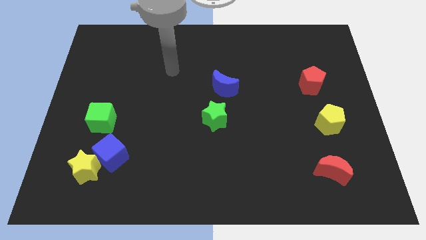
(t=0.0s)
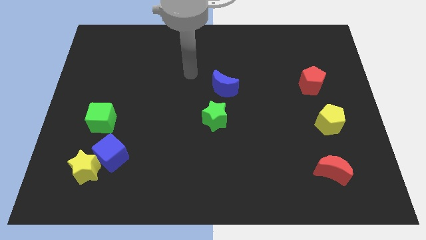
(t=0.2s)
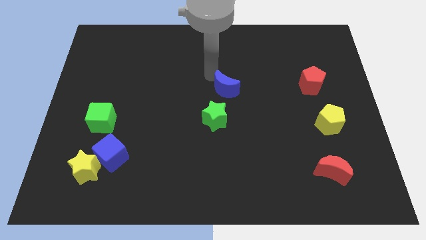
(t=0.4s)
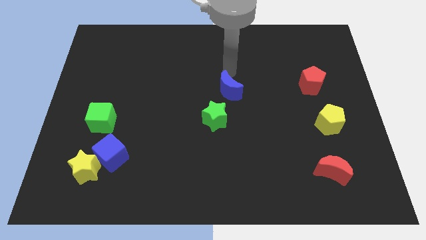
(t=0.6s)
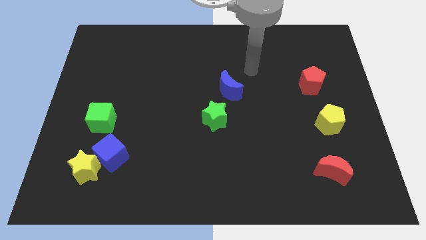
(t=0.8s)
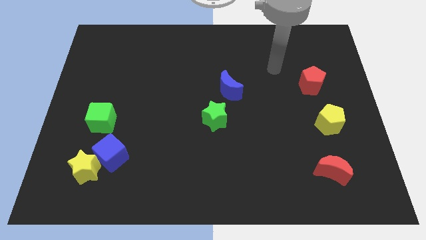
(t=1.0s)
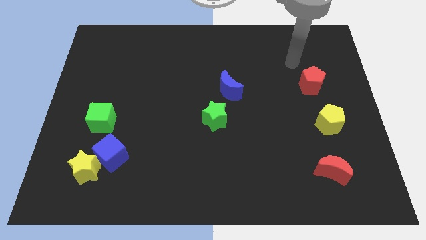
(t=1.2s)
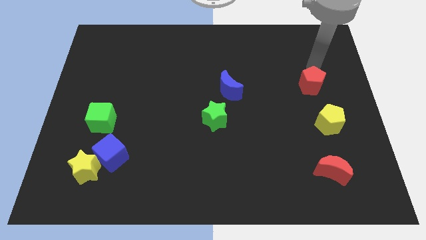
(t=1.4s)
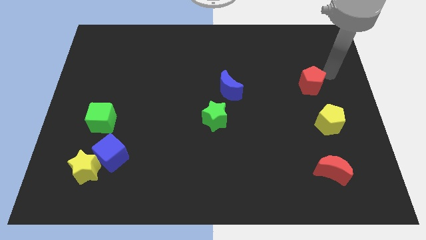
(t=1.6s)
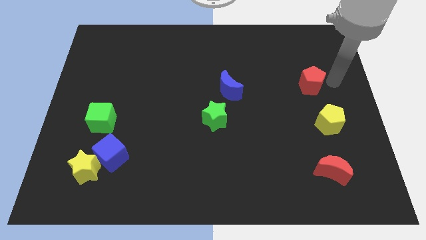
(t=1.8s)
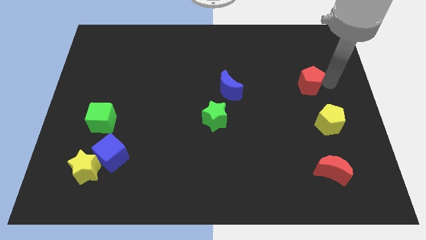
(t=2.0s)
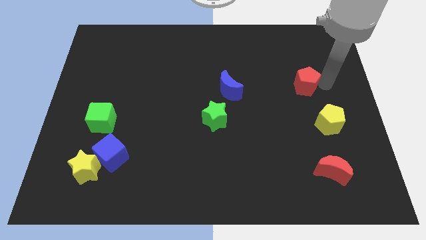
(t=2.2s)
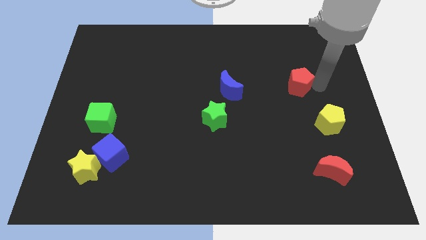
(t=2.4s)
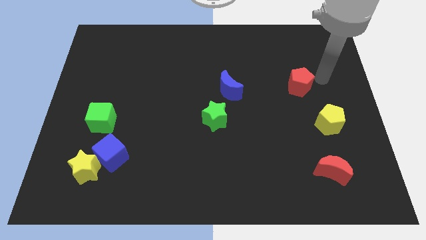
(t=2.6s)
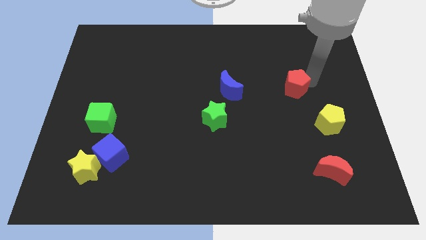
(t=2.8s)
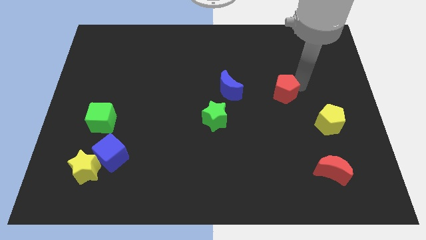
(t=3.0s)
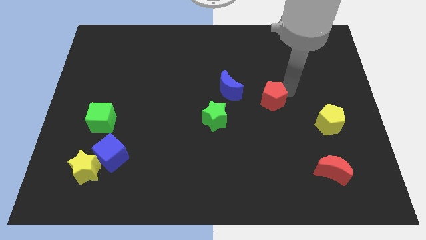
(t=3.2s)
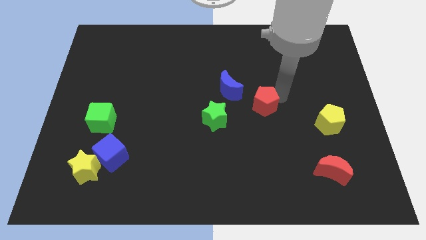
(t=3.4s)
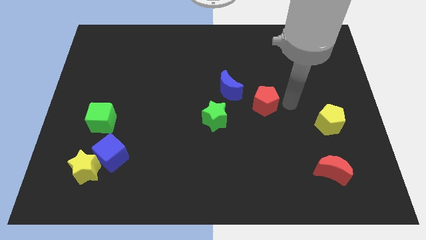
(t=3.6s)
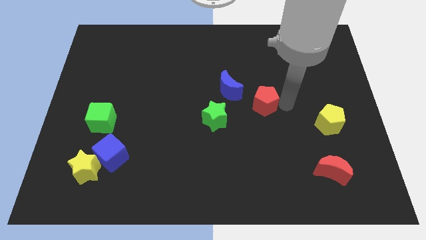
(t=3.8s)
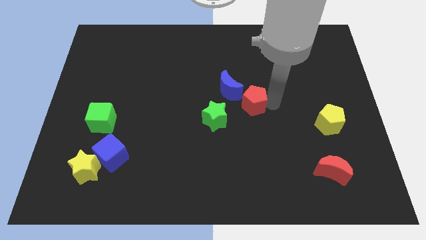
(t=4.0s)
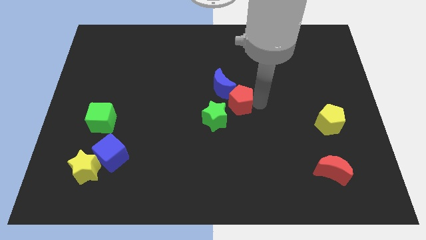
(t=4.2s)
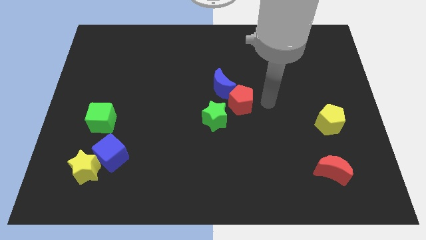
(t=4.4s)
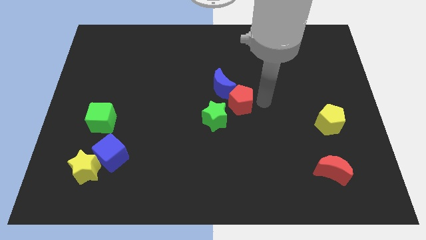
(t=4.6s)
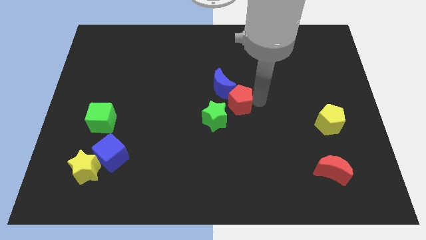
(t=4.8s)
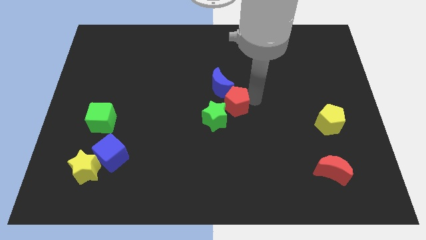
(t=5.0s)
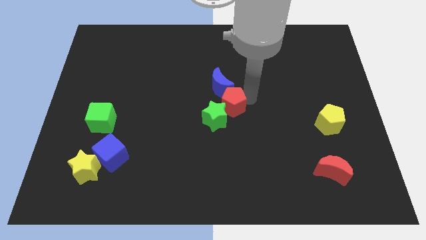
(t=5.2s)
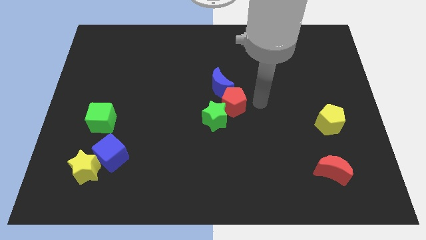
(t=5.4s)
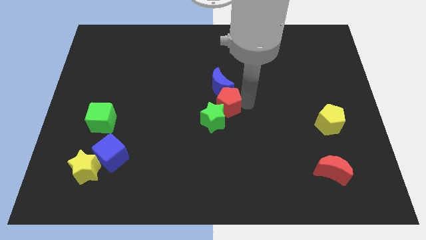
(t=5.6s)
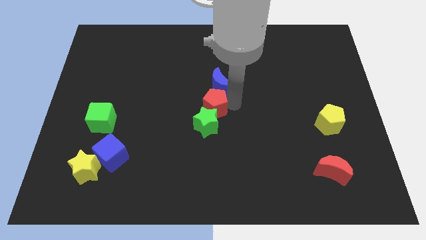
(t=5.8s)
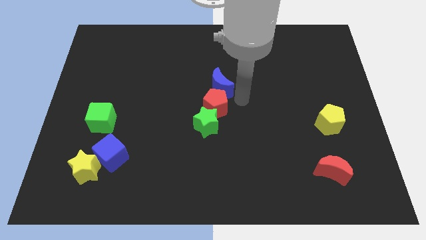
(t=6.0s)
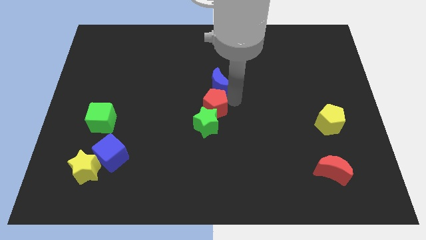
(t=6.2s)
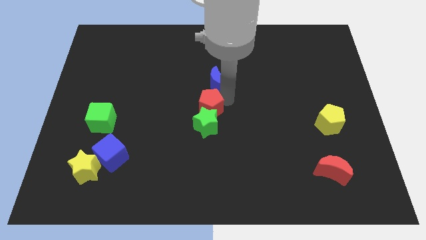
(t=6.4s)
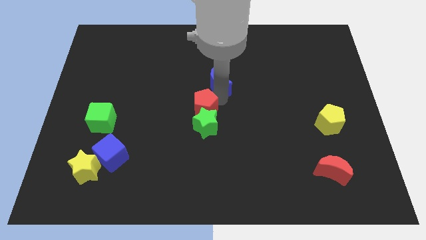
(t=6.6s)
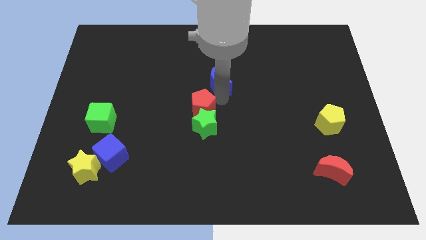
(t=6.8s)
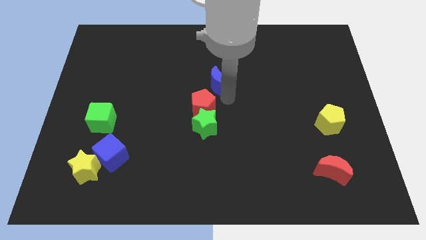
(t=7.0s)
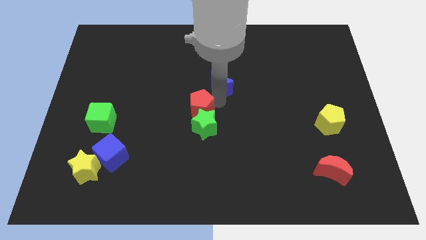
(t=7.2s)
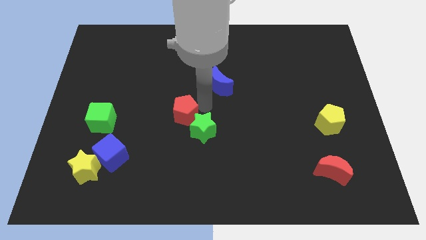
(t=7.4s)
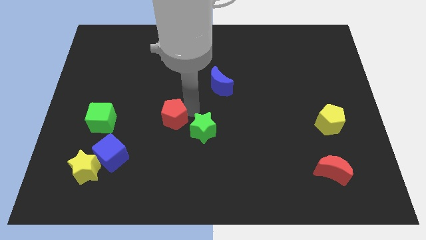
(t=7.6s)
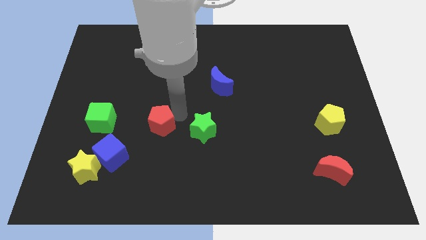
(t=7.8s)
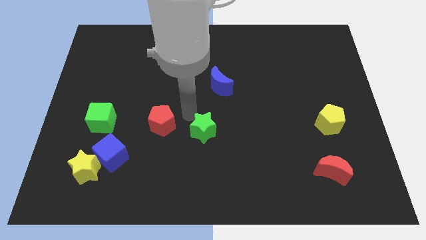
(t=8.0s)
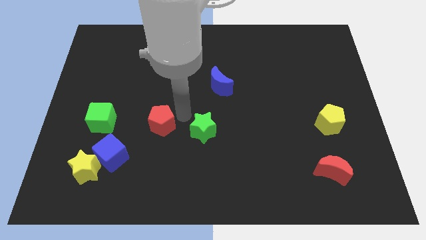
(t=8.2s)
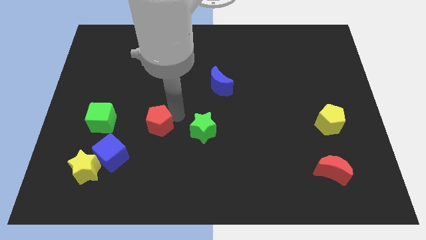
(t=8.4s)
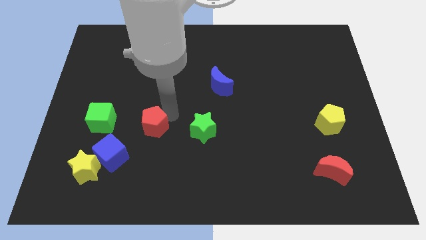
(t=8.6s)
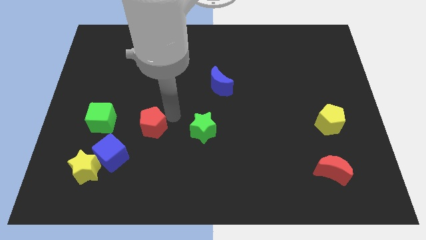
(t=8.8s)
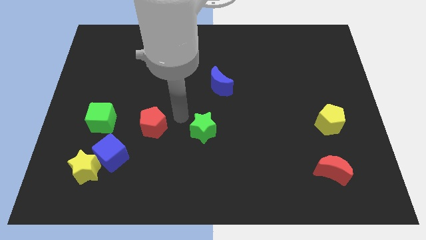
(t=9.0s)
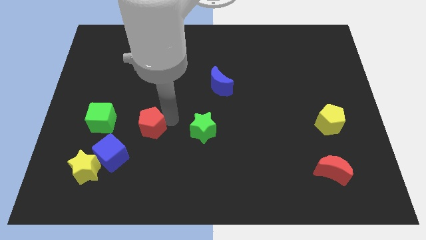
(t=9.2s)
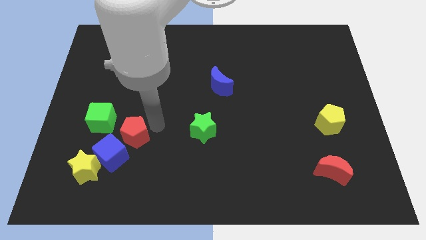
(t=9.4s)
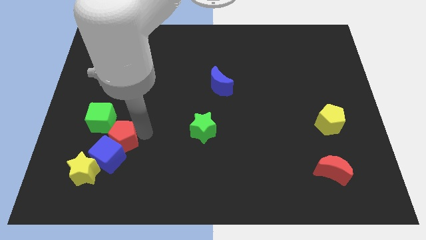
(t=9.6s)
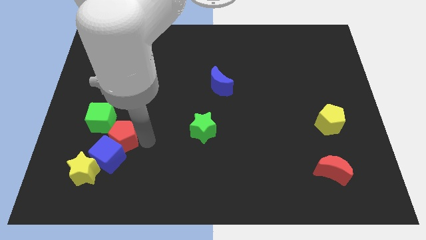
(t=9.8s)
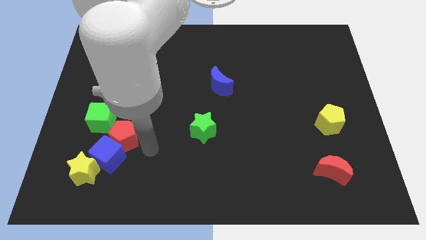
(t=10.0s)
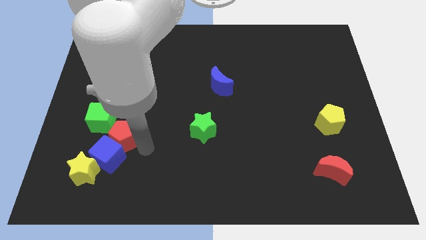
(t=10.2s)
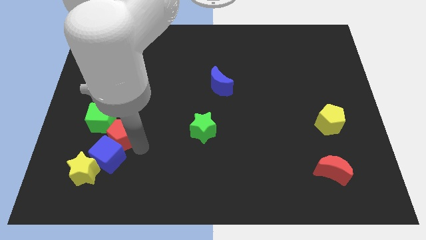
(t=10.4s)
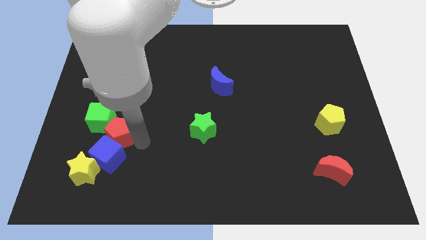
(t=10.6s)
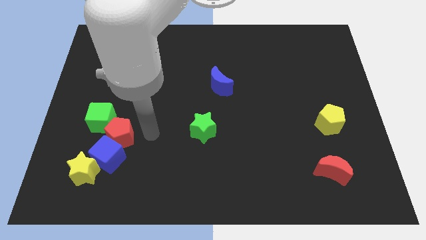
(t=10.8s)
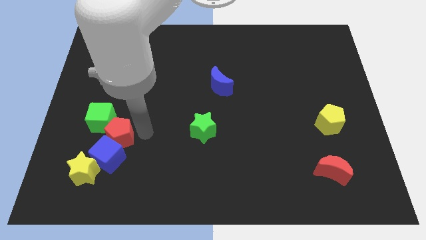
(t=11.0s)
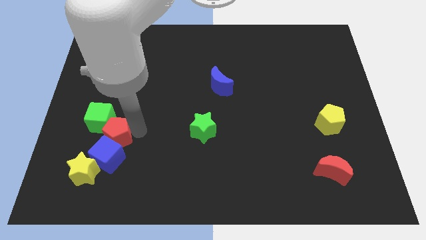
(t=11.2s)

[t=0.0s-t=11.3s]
slide the red pentagon diagonally up and to the left of the blue cube
